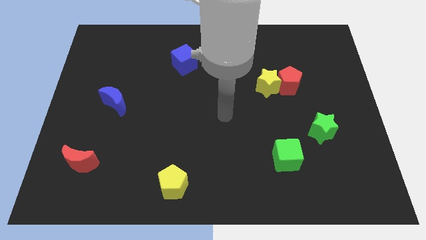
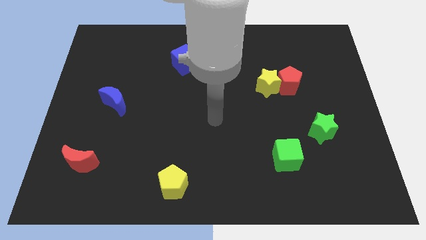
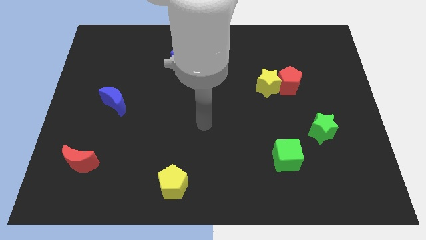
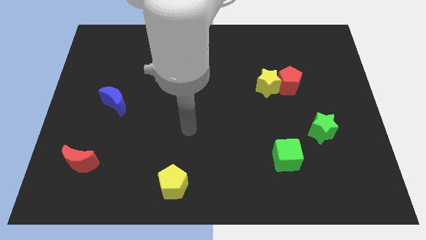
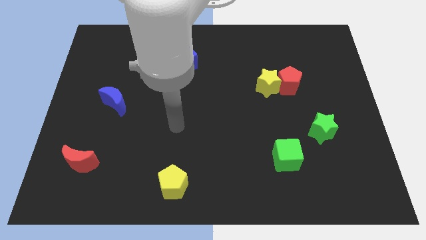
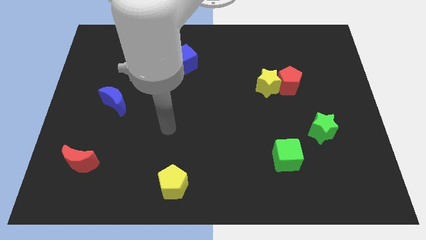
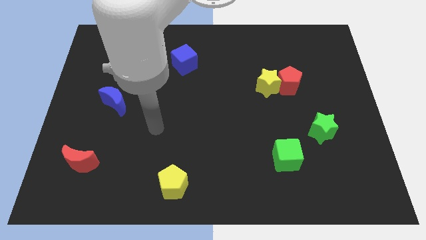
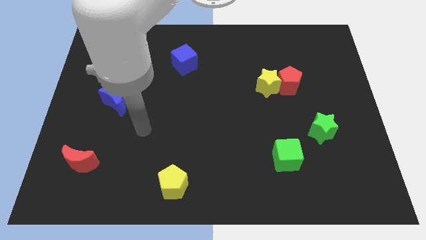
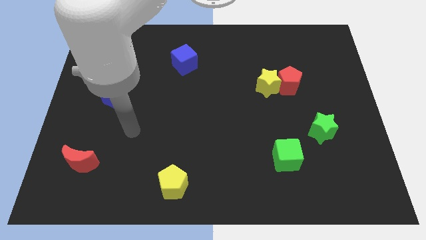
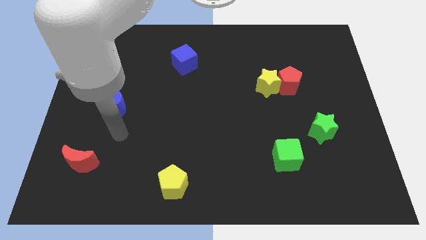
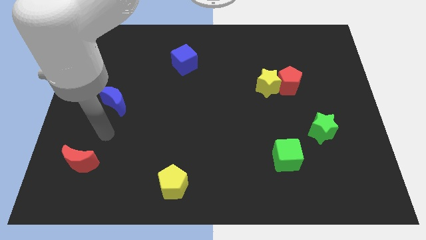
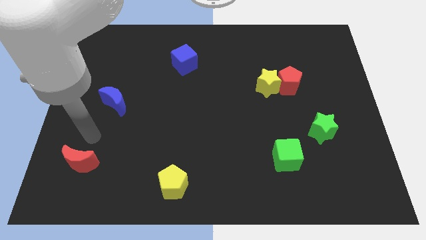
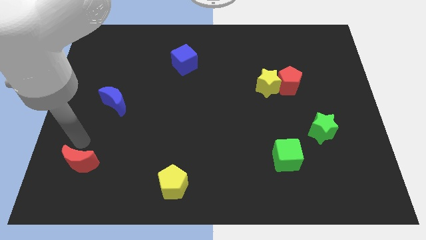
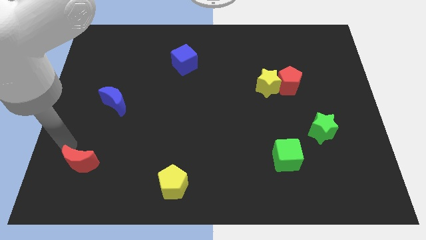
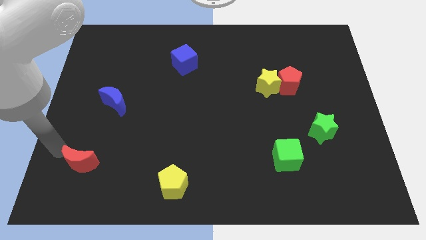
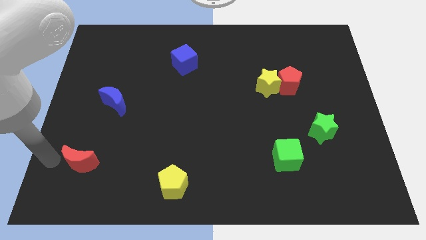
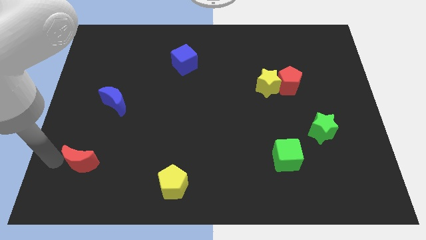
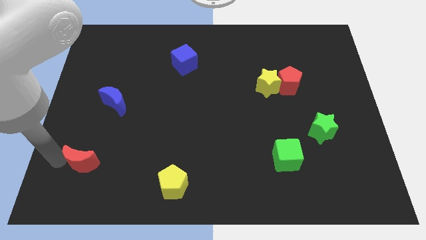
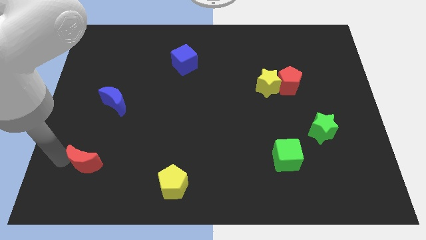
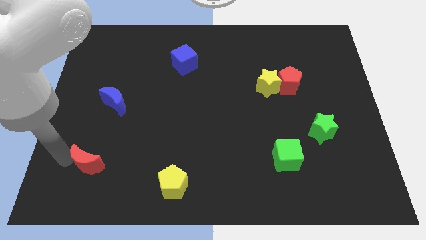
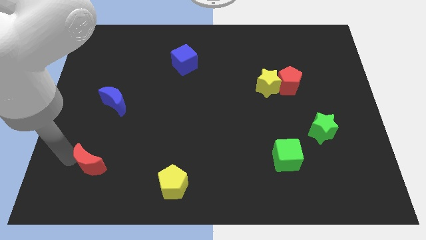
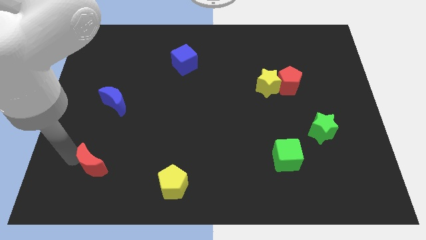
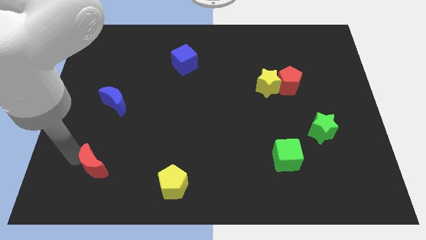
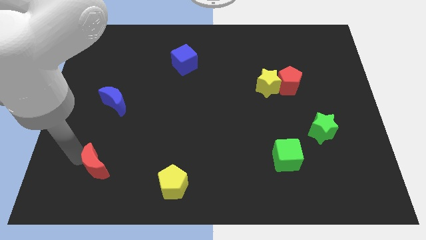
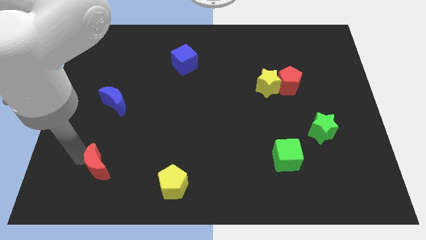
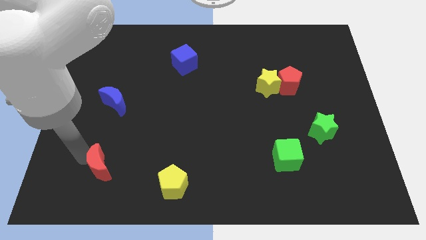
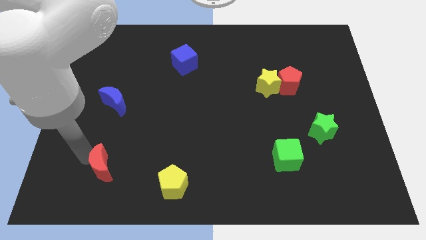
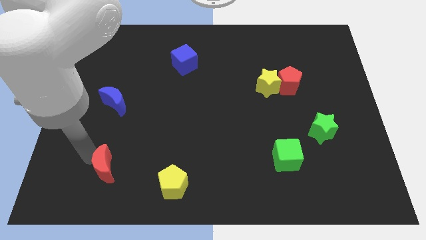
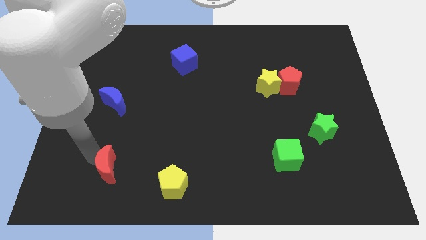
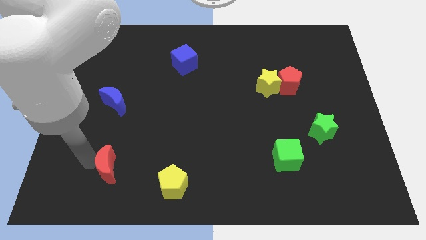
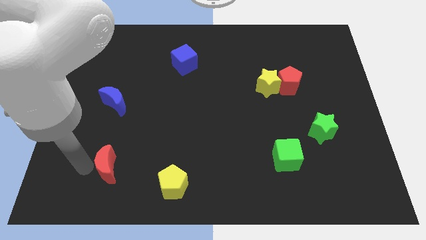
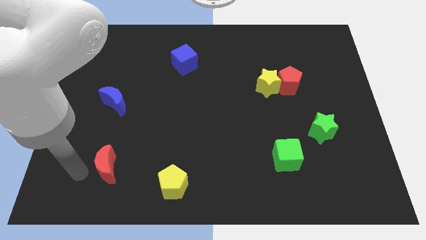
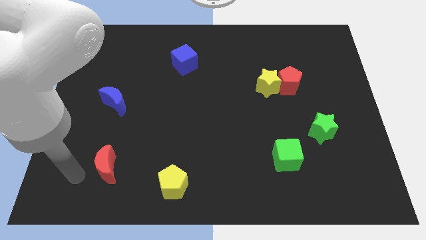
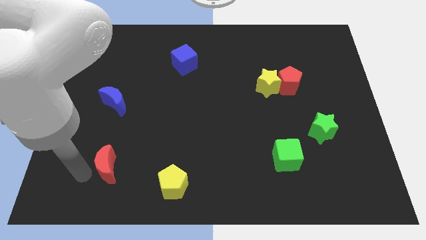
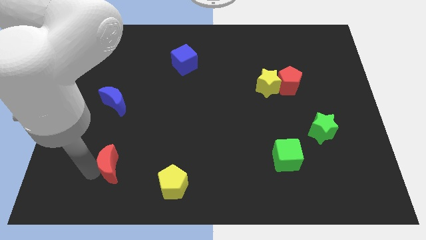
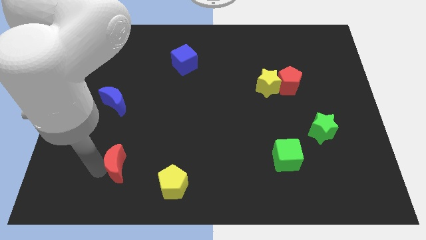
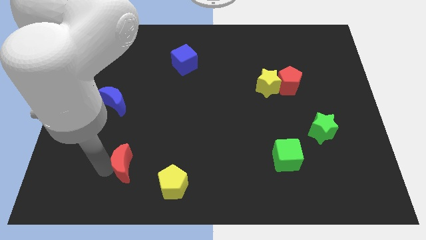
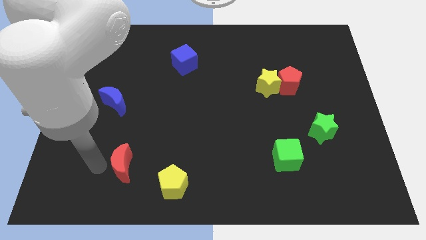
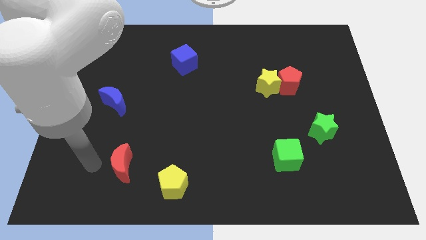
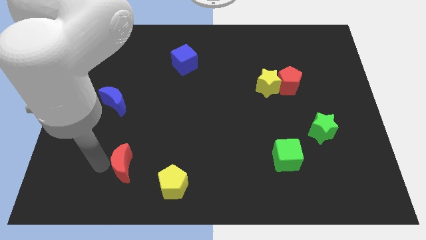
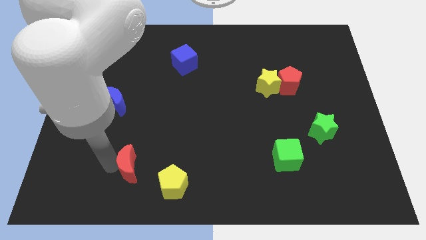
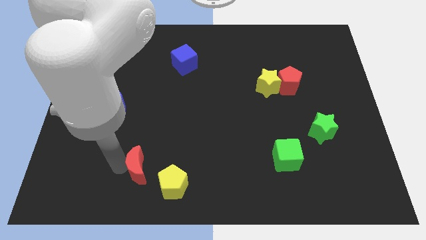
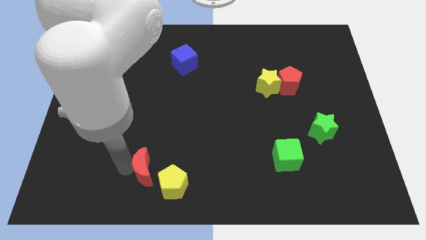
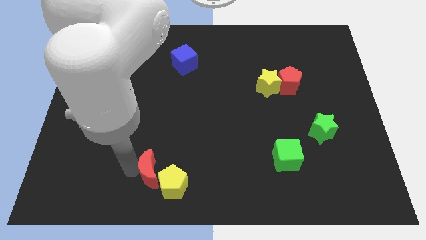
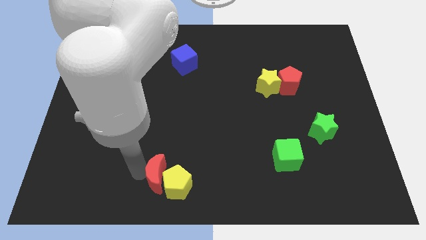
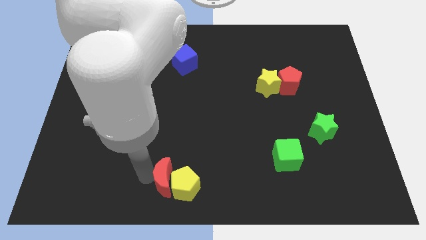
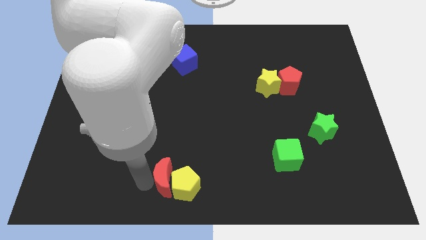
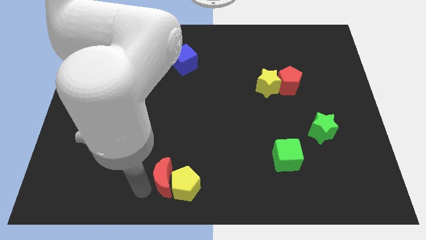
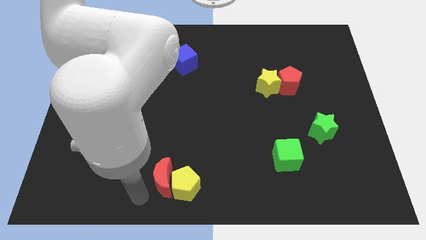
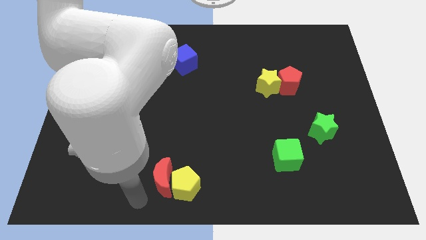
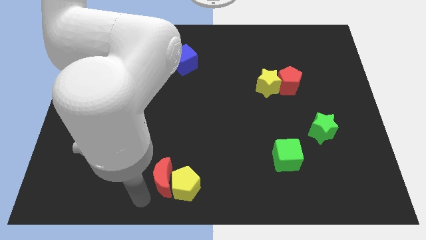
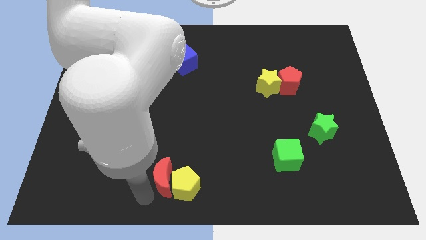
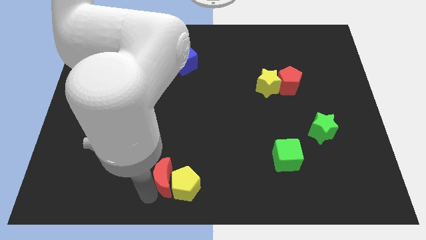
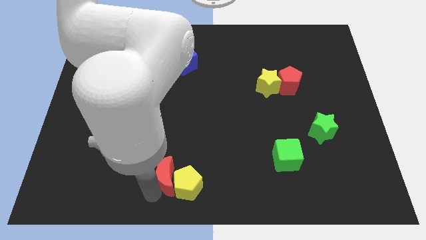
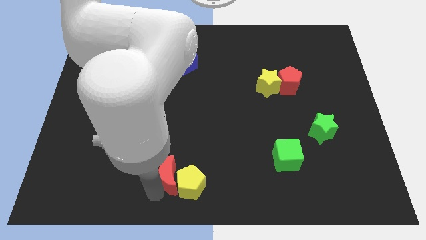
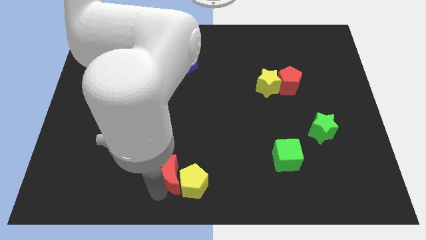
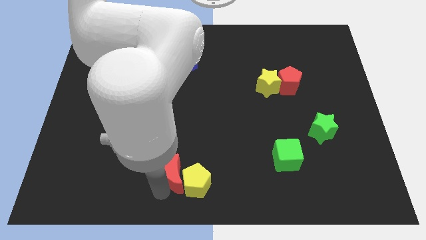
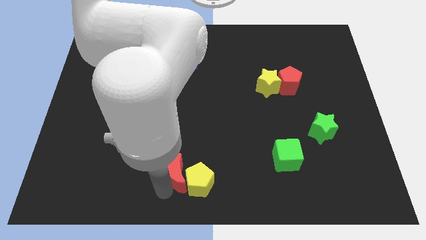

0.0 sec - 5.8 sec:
push the red moon to the right

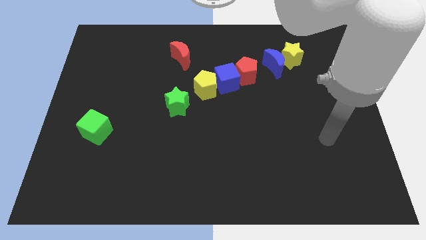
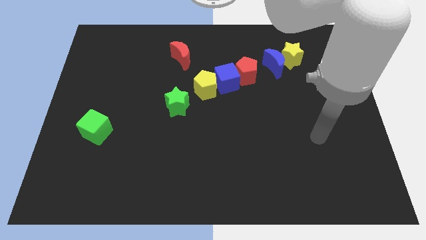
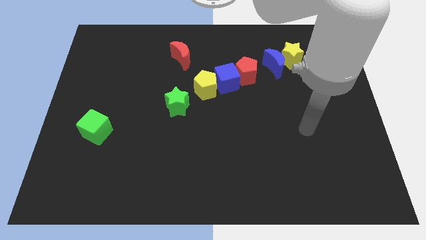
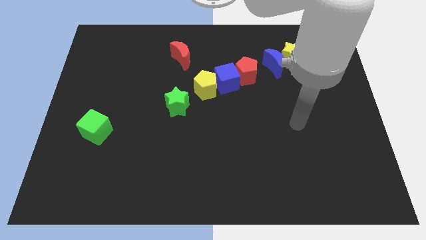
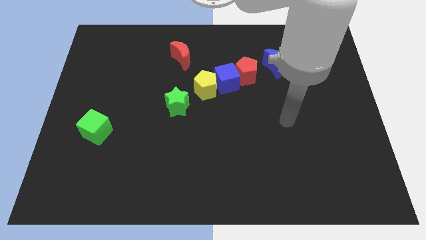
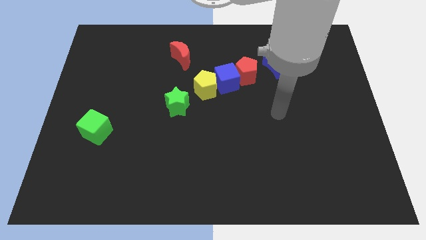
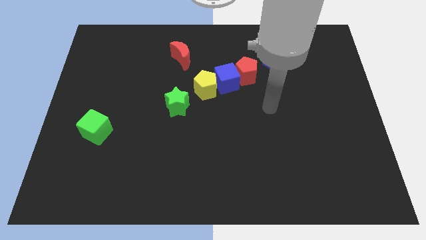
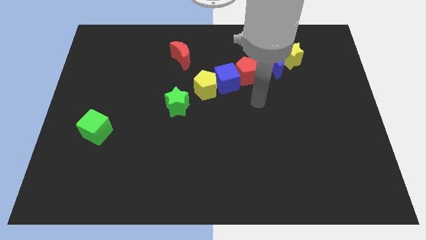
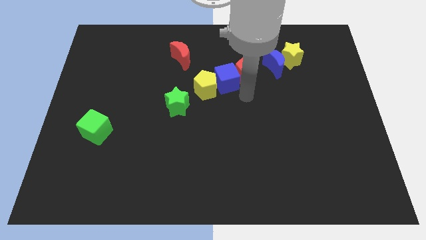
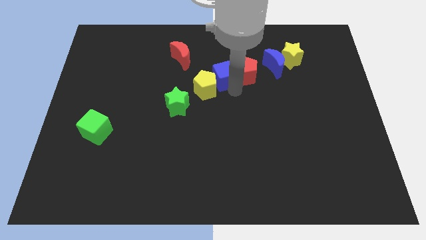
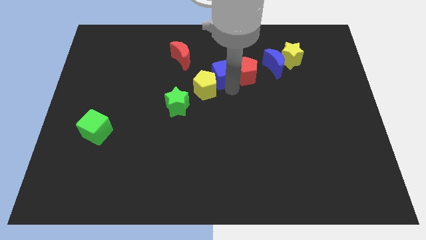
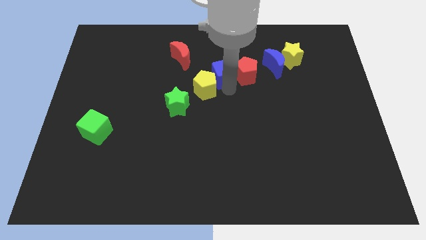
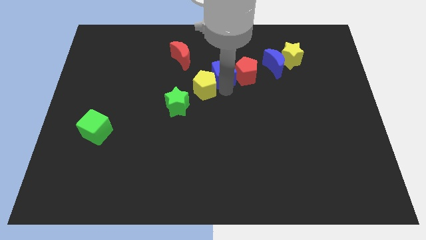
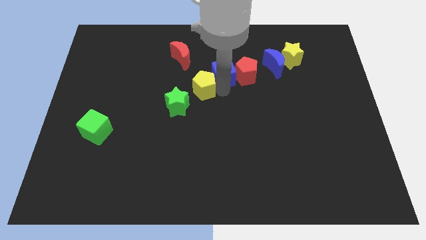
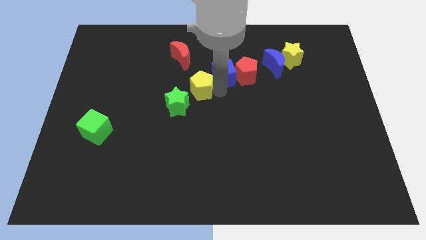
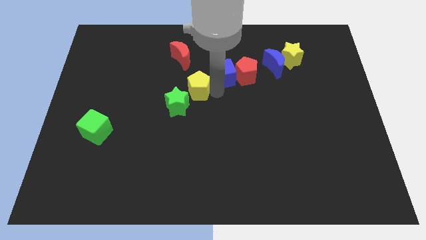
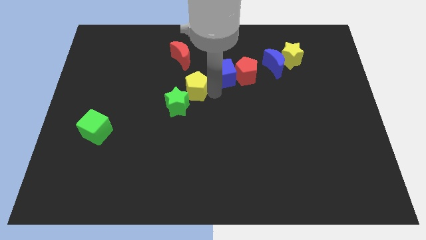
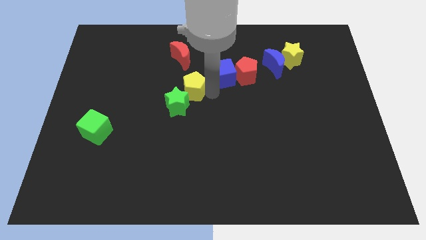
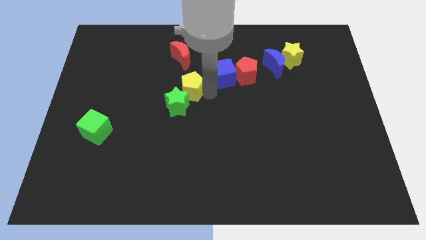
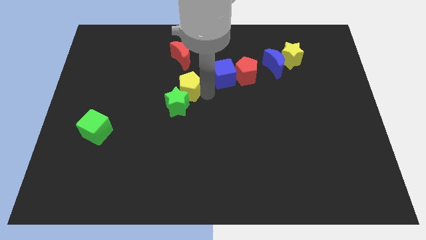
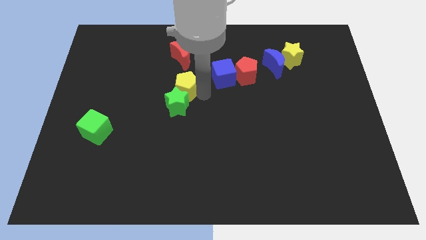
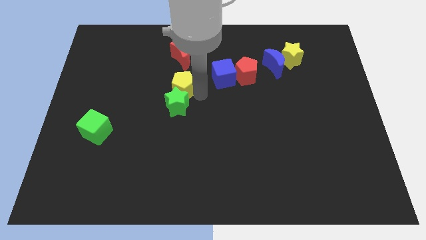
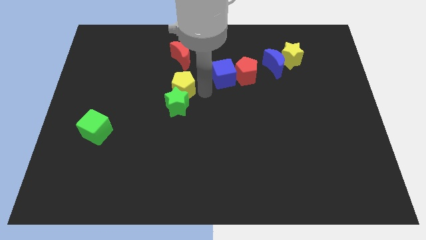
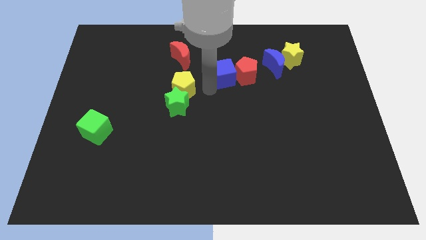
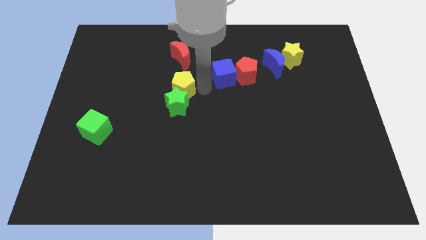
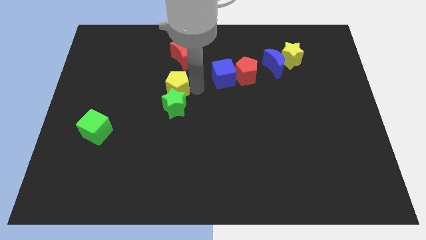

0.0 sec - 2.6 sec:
slide the yellow pentagon a little left
